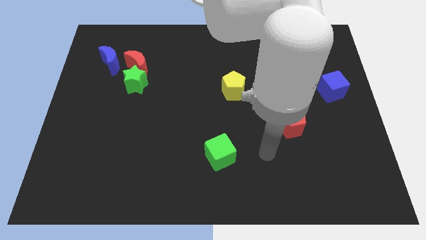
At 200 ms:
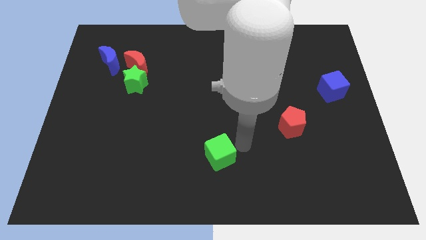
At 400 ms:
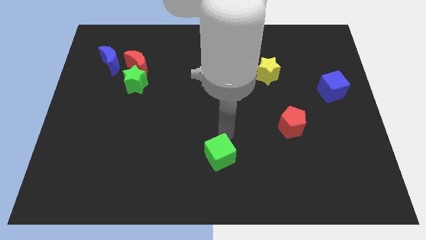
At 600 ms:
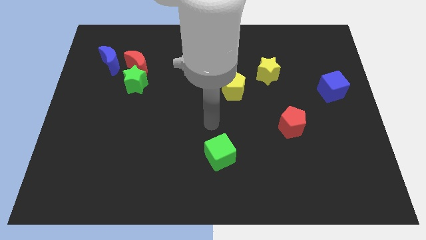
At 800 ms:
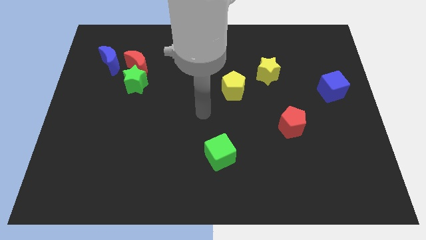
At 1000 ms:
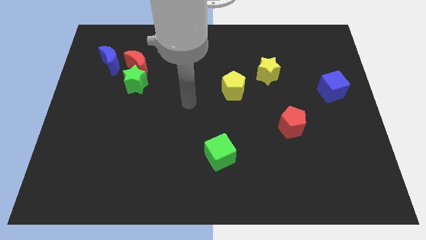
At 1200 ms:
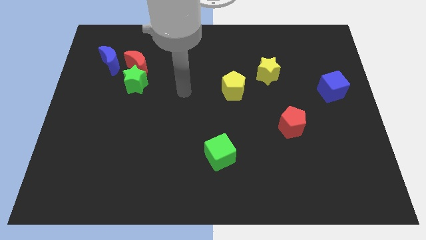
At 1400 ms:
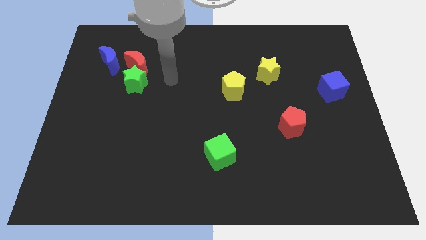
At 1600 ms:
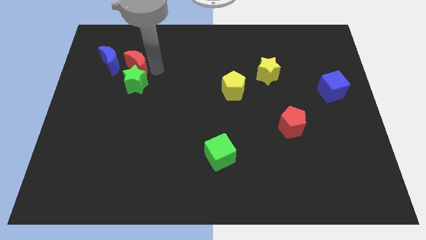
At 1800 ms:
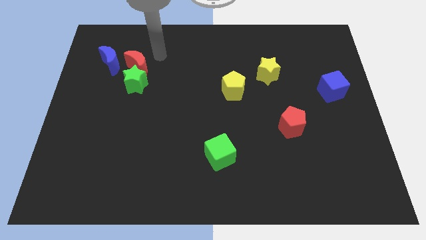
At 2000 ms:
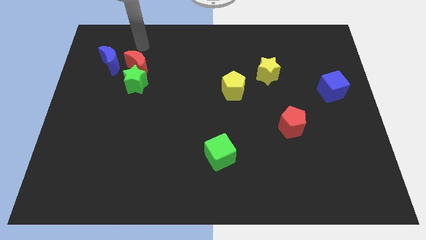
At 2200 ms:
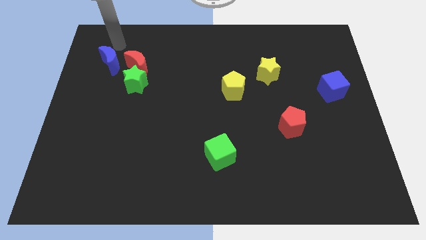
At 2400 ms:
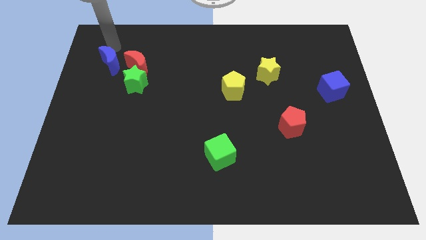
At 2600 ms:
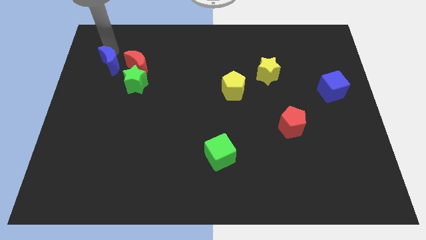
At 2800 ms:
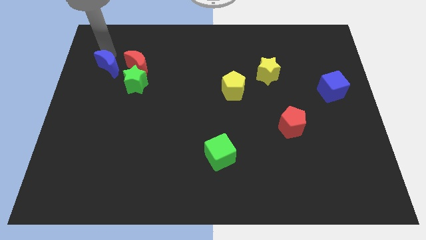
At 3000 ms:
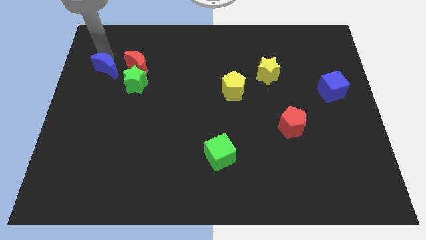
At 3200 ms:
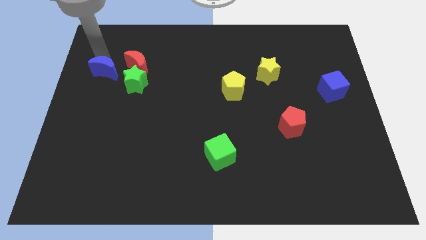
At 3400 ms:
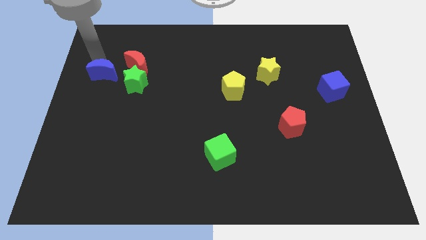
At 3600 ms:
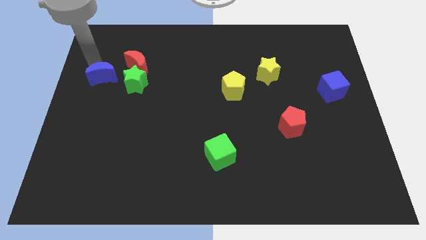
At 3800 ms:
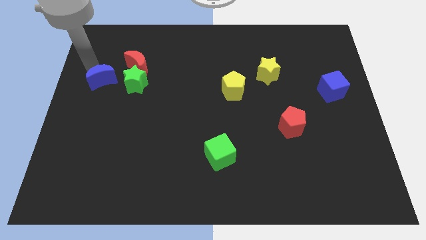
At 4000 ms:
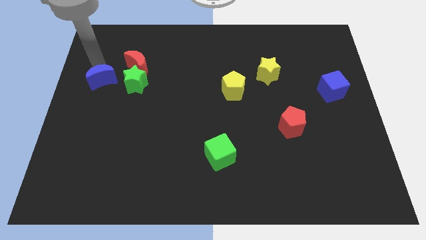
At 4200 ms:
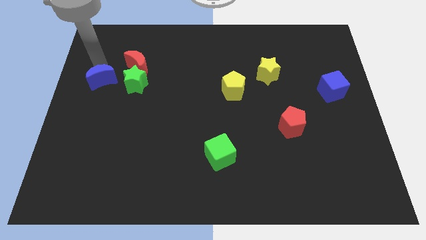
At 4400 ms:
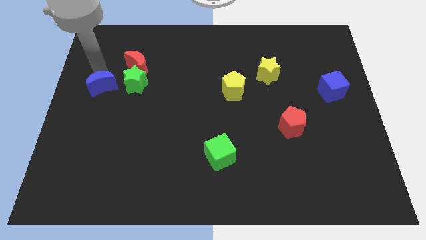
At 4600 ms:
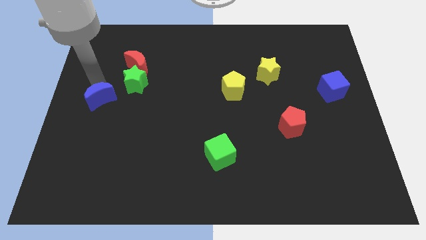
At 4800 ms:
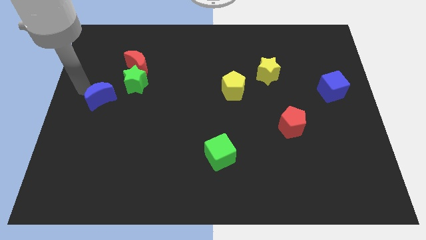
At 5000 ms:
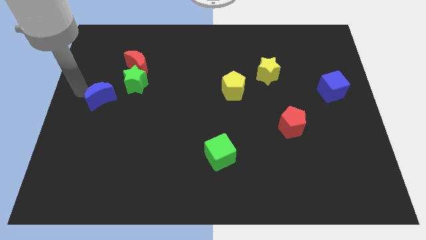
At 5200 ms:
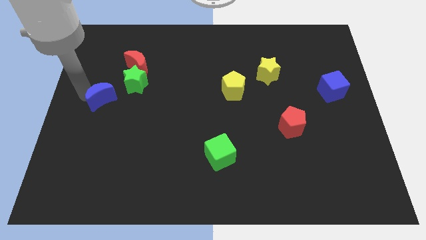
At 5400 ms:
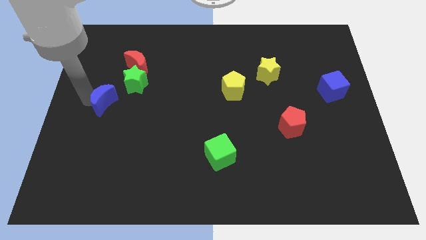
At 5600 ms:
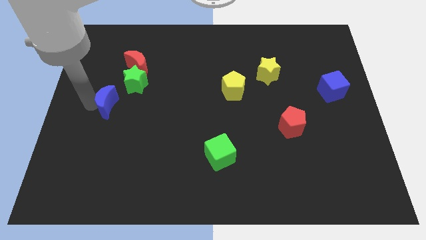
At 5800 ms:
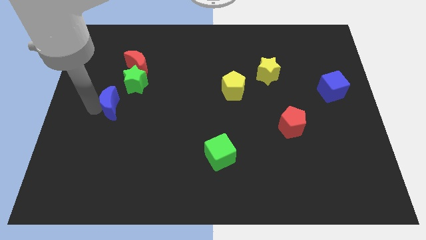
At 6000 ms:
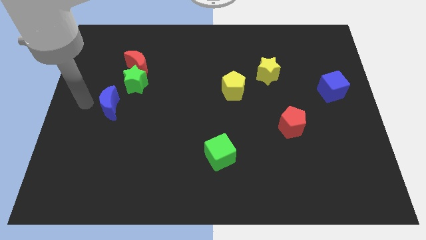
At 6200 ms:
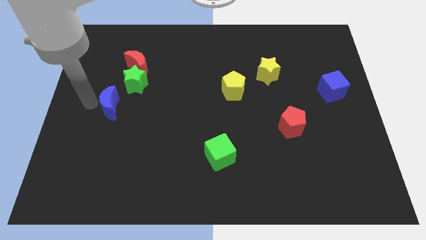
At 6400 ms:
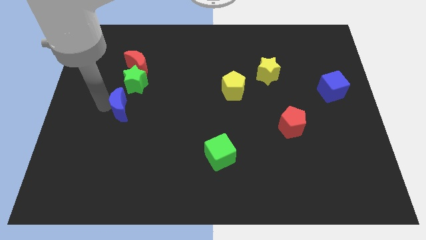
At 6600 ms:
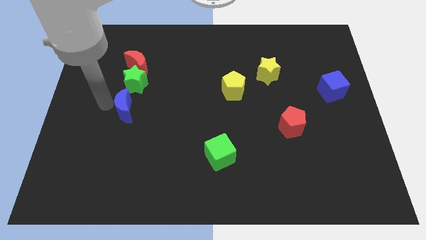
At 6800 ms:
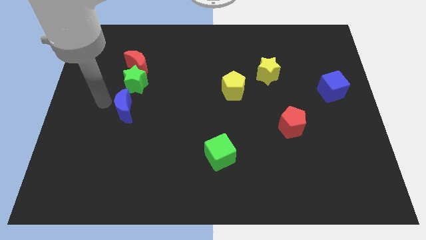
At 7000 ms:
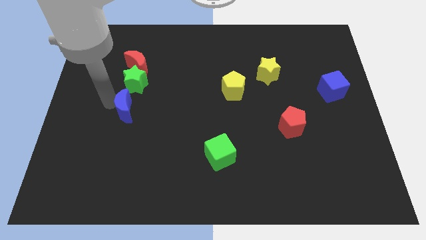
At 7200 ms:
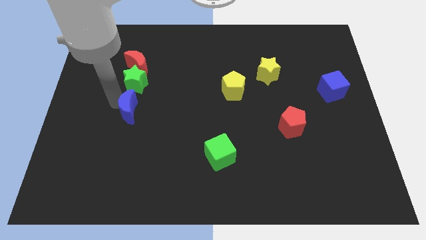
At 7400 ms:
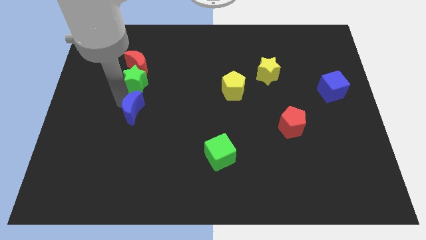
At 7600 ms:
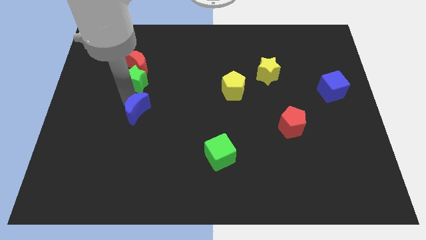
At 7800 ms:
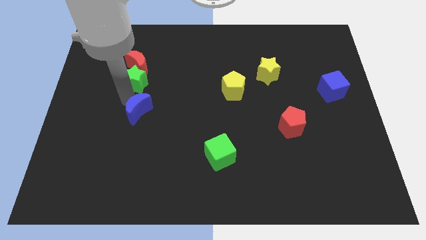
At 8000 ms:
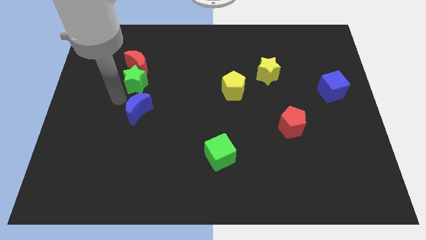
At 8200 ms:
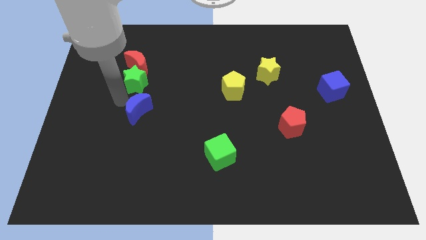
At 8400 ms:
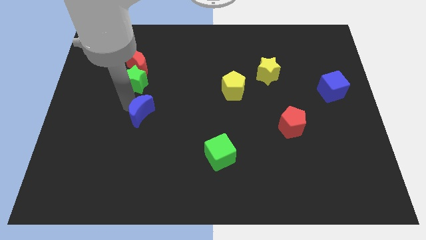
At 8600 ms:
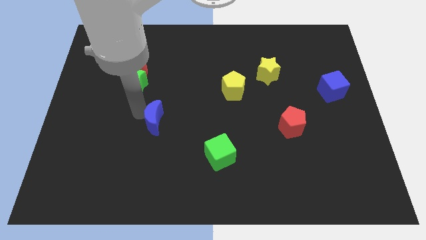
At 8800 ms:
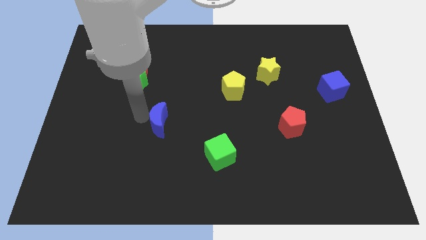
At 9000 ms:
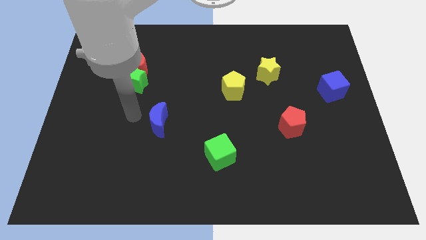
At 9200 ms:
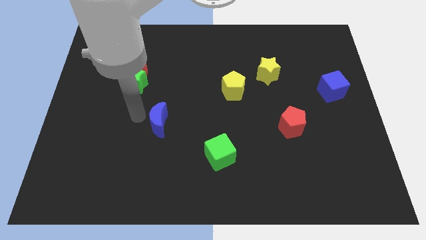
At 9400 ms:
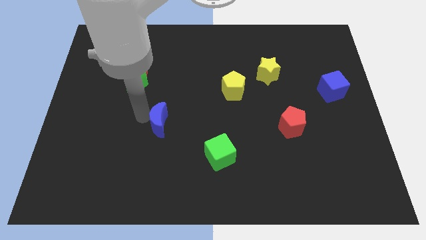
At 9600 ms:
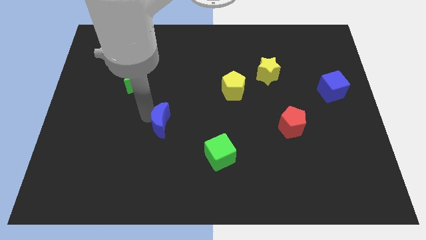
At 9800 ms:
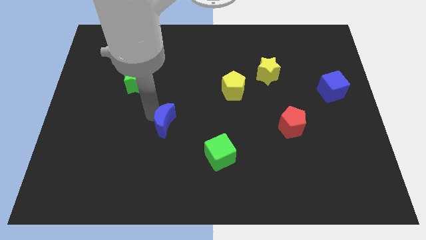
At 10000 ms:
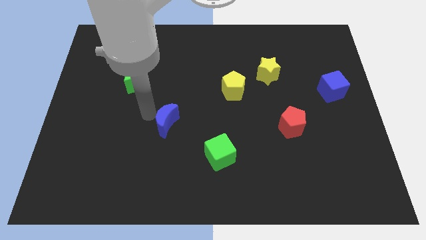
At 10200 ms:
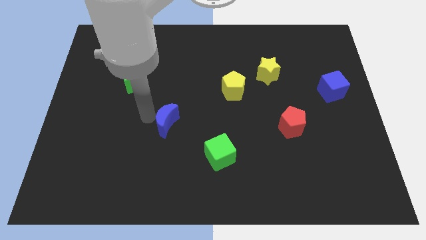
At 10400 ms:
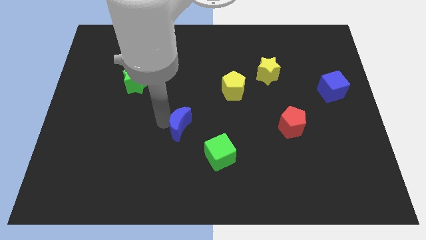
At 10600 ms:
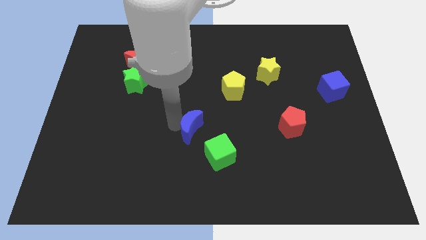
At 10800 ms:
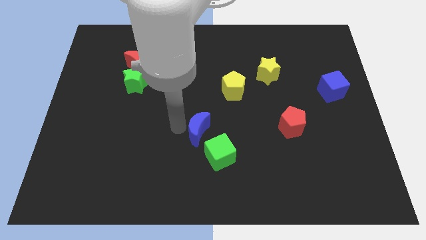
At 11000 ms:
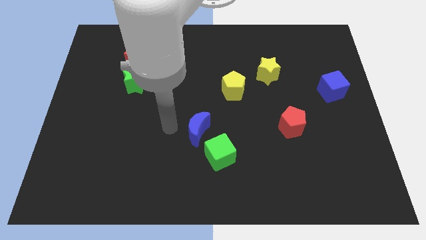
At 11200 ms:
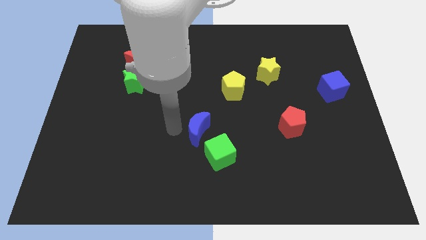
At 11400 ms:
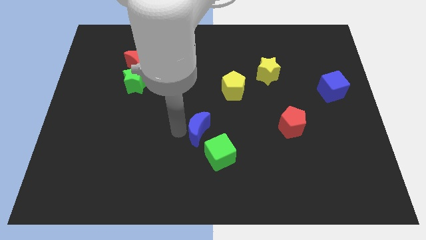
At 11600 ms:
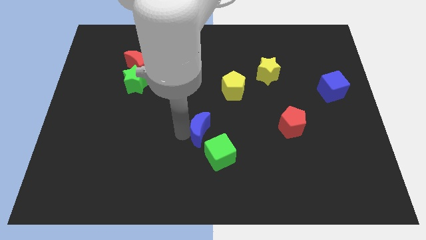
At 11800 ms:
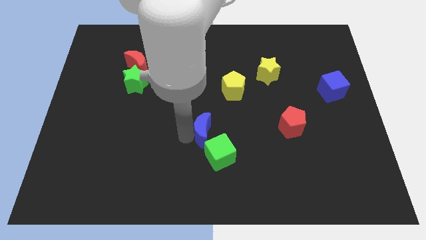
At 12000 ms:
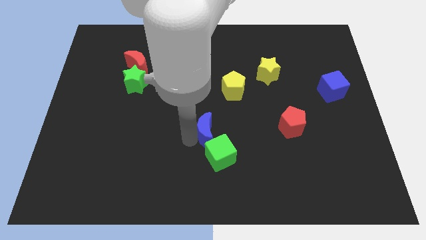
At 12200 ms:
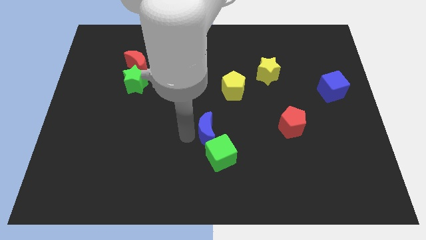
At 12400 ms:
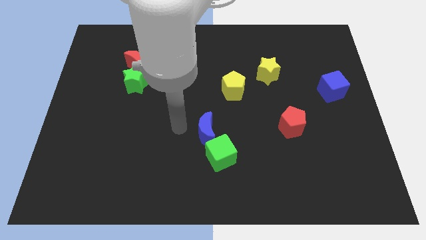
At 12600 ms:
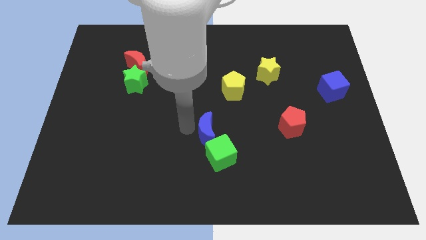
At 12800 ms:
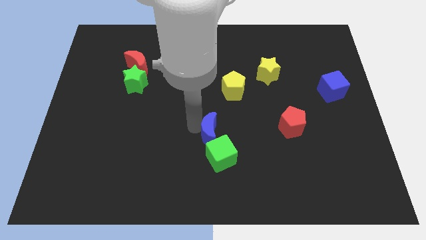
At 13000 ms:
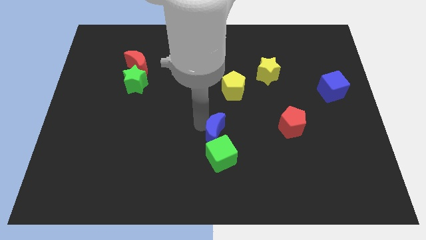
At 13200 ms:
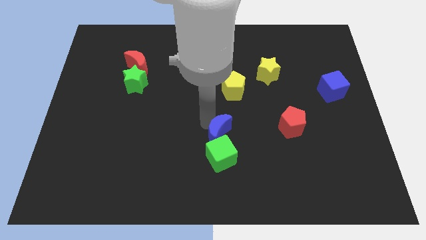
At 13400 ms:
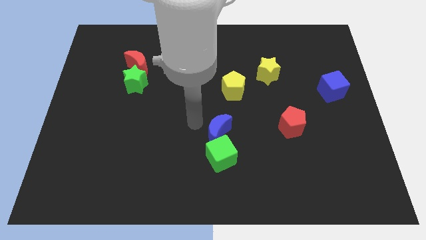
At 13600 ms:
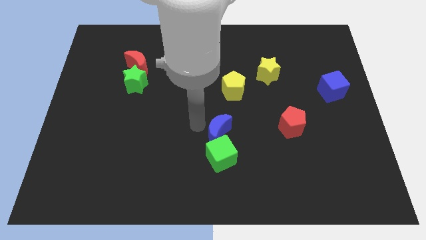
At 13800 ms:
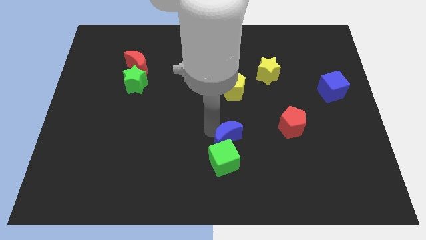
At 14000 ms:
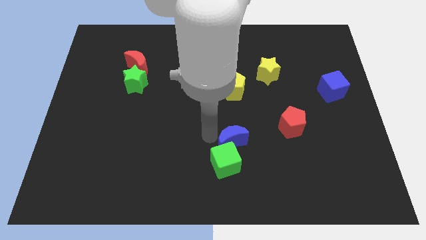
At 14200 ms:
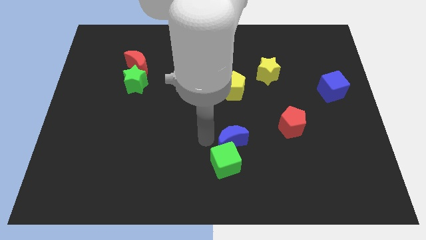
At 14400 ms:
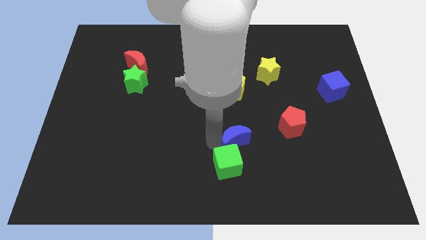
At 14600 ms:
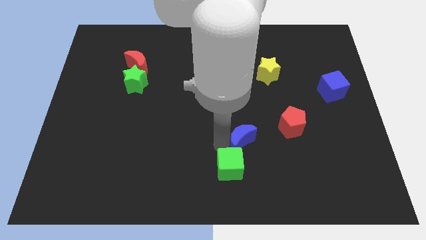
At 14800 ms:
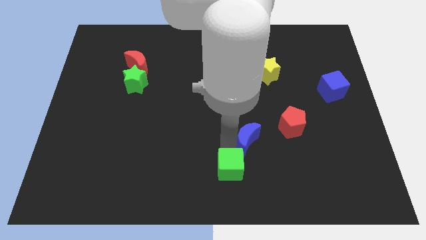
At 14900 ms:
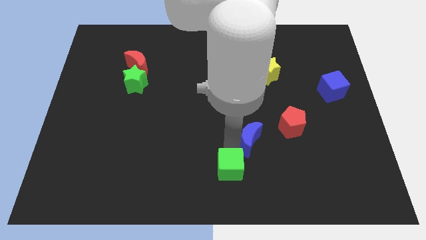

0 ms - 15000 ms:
put the blue moon to the bottom left of the red pentagon
